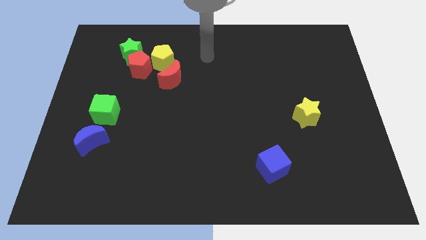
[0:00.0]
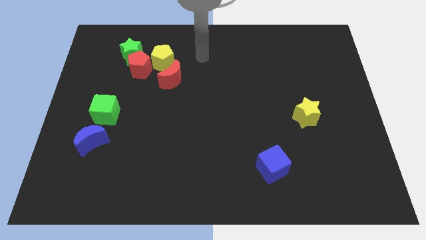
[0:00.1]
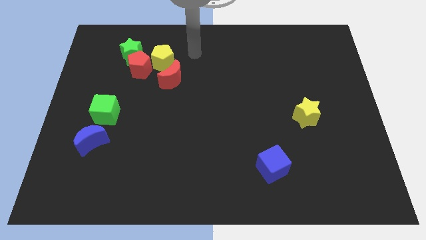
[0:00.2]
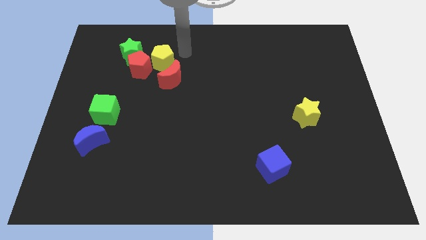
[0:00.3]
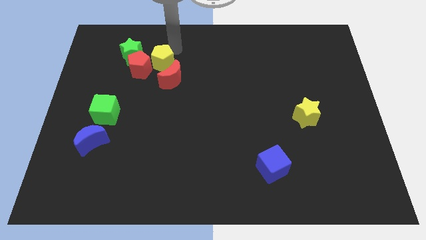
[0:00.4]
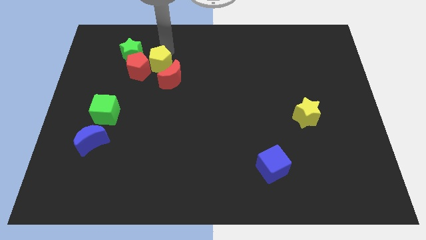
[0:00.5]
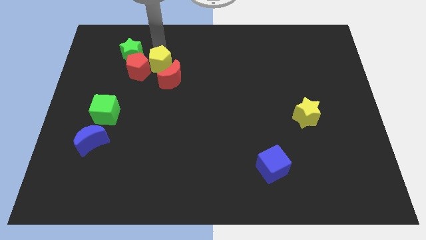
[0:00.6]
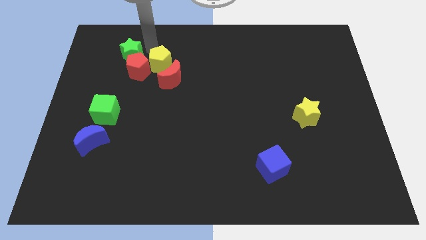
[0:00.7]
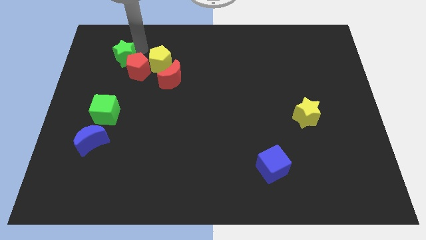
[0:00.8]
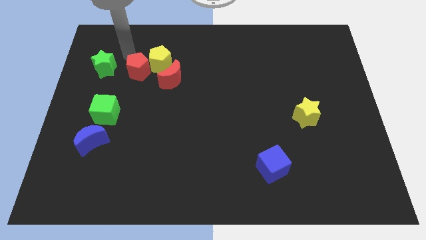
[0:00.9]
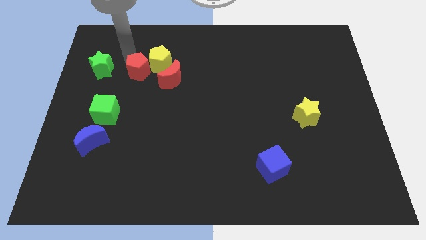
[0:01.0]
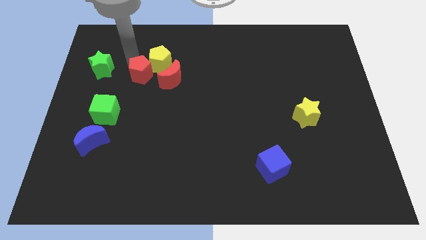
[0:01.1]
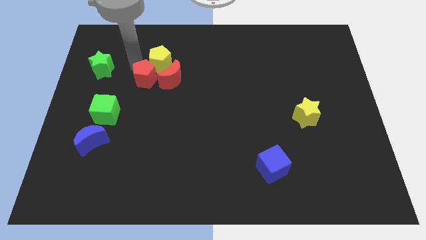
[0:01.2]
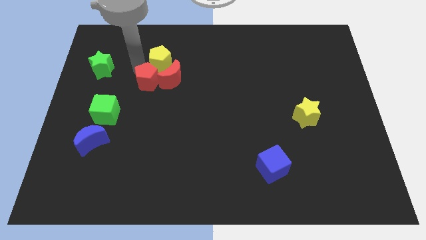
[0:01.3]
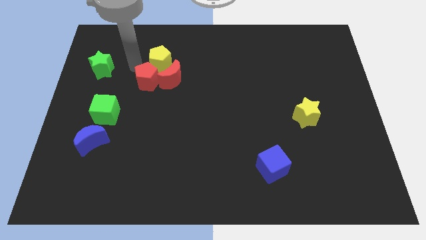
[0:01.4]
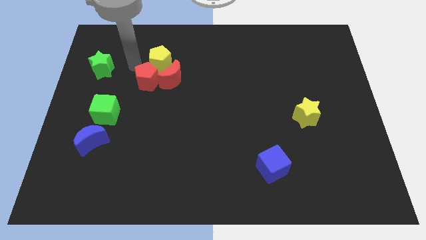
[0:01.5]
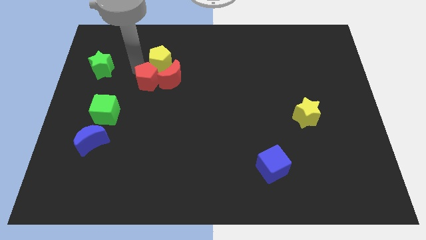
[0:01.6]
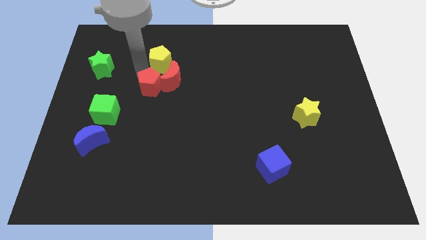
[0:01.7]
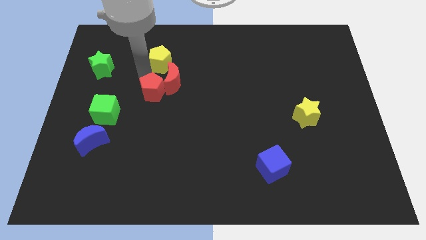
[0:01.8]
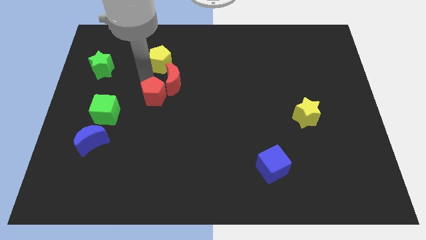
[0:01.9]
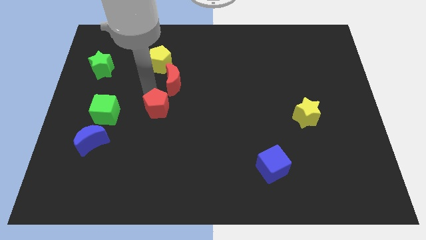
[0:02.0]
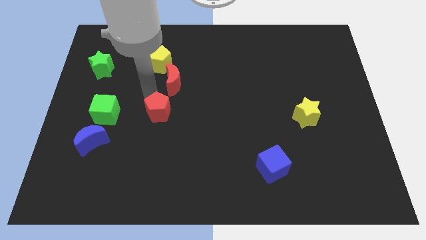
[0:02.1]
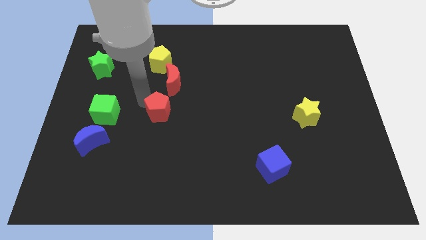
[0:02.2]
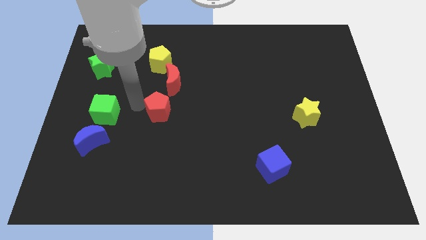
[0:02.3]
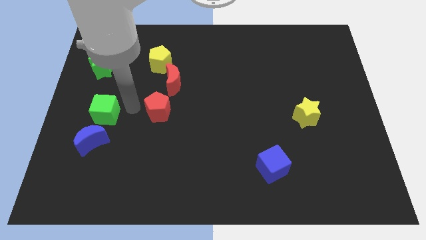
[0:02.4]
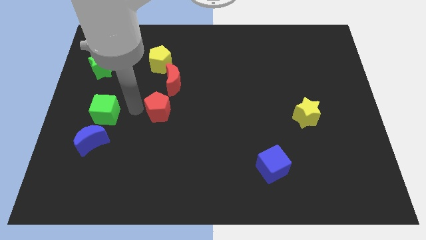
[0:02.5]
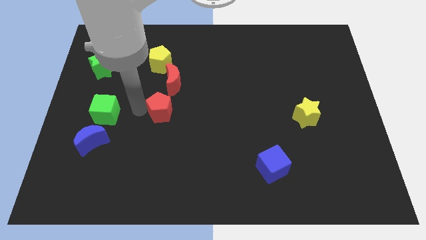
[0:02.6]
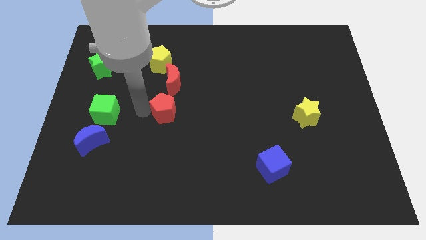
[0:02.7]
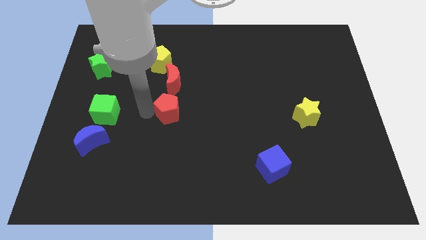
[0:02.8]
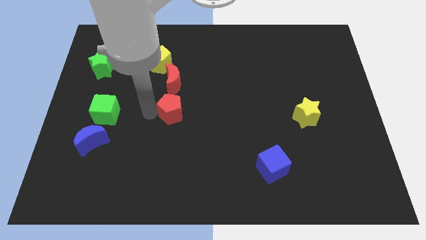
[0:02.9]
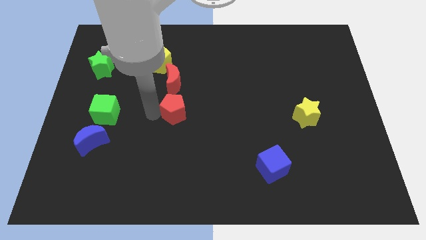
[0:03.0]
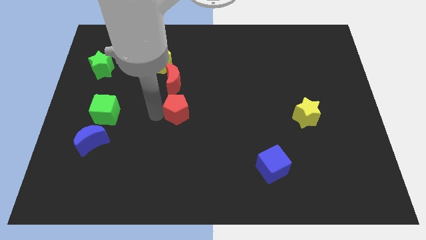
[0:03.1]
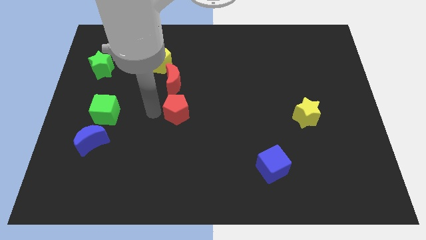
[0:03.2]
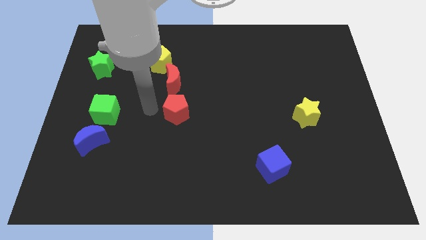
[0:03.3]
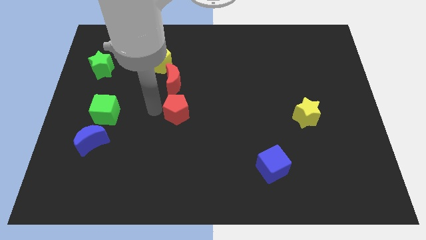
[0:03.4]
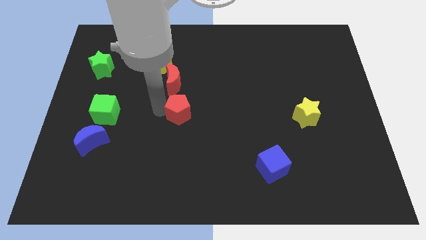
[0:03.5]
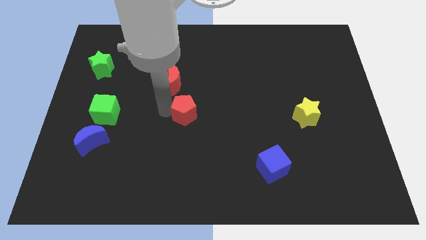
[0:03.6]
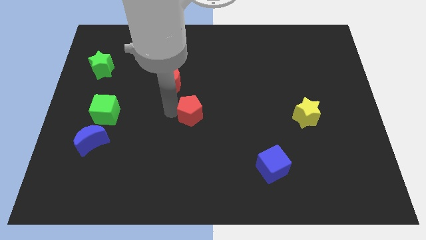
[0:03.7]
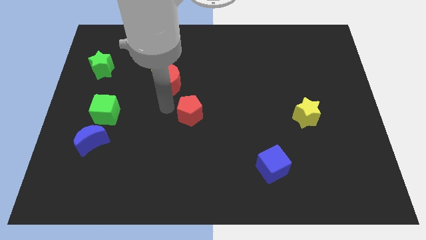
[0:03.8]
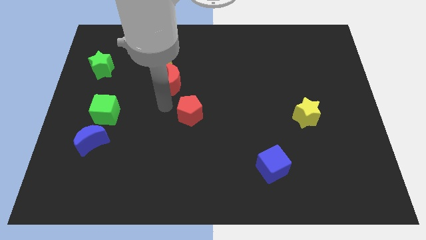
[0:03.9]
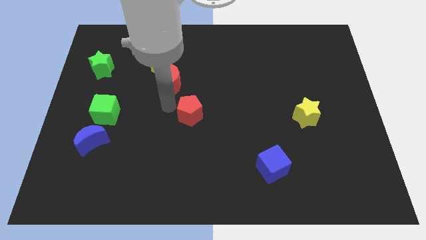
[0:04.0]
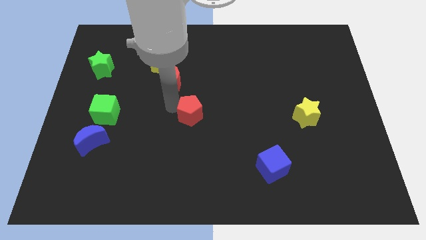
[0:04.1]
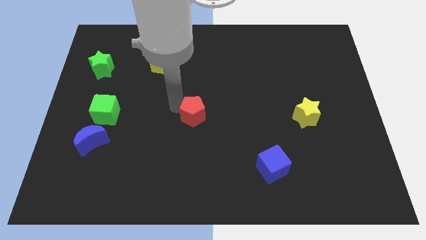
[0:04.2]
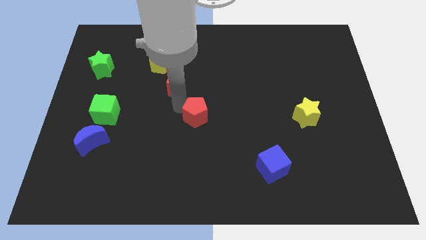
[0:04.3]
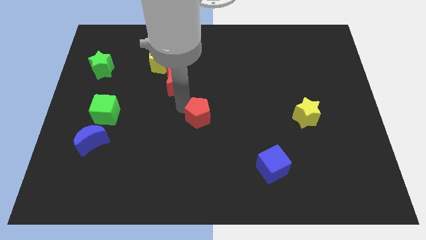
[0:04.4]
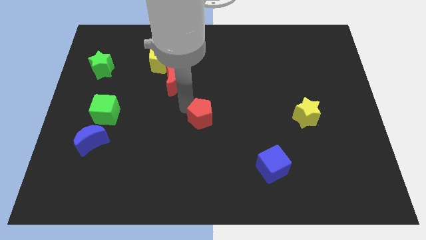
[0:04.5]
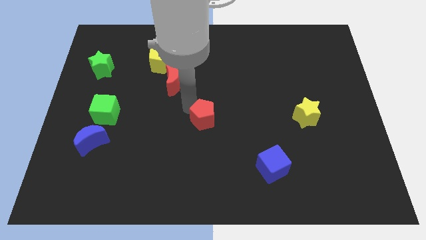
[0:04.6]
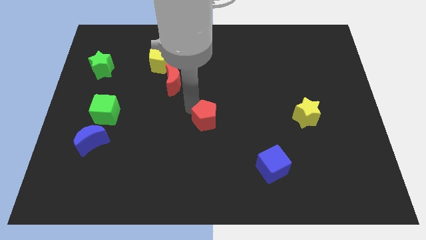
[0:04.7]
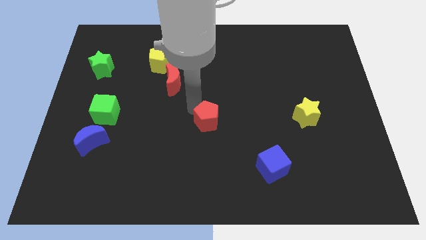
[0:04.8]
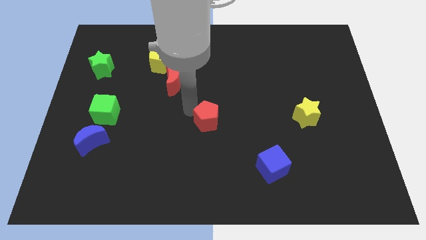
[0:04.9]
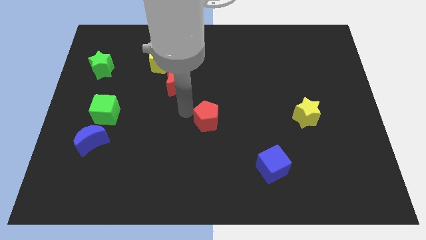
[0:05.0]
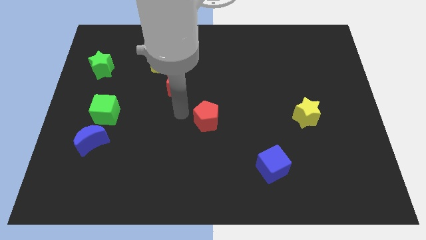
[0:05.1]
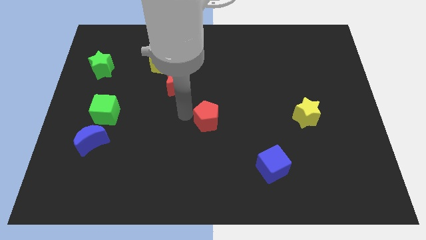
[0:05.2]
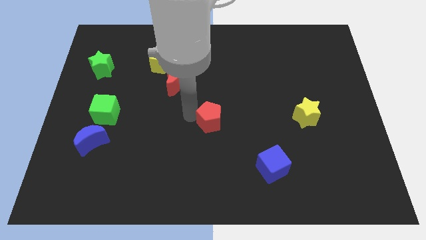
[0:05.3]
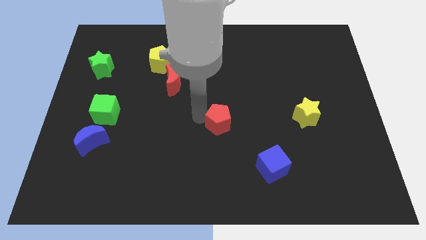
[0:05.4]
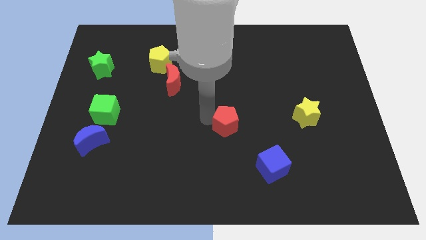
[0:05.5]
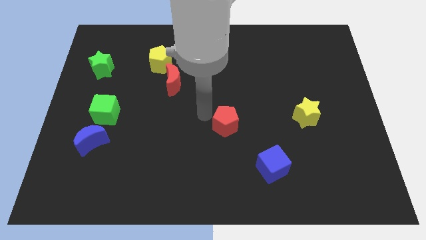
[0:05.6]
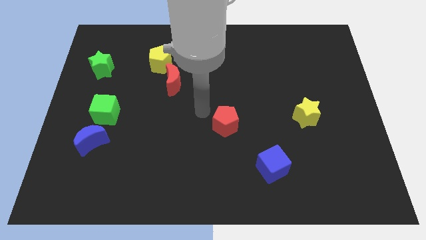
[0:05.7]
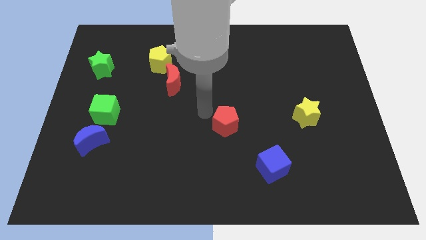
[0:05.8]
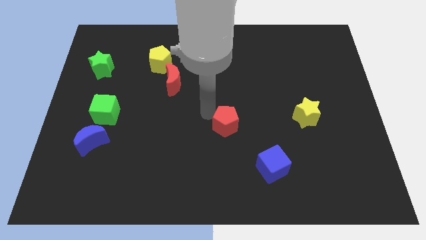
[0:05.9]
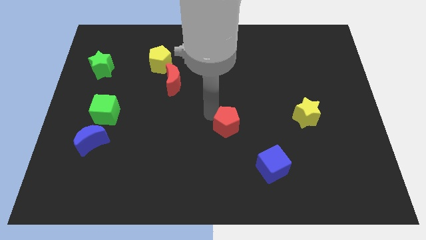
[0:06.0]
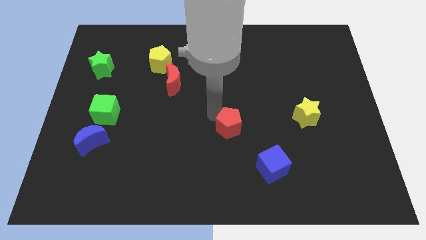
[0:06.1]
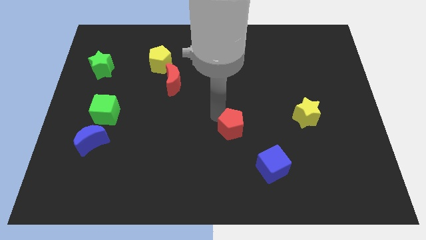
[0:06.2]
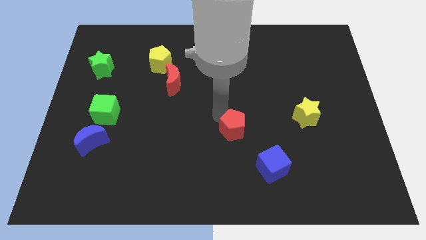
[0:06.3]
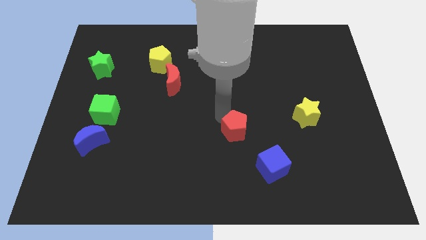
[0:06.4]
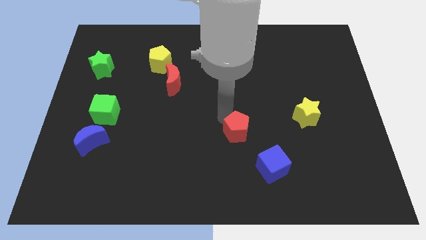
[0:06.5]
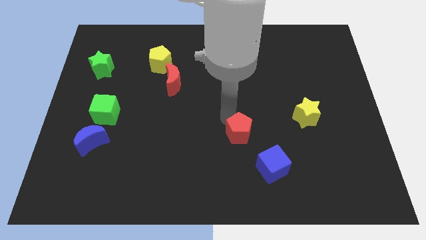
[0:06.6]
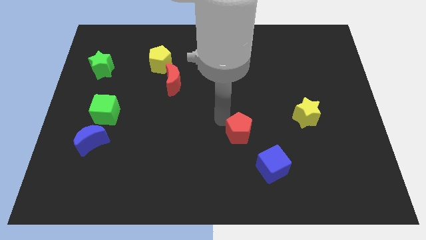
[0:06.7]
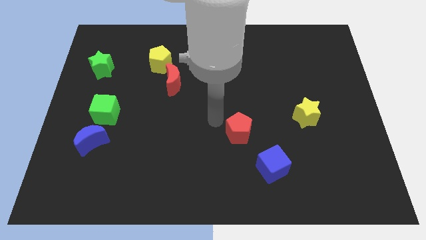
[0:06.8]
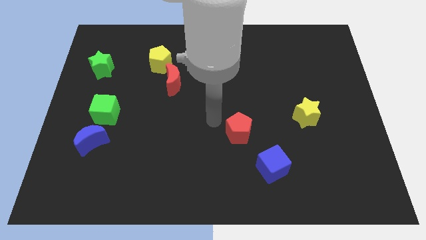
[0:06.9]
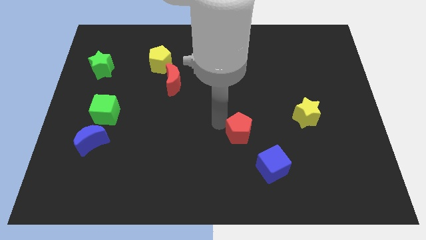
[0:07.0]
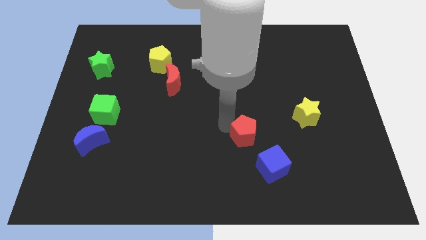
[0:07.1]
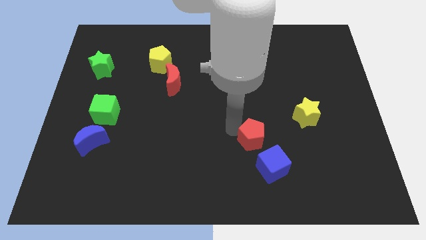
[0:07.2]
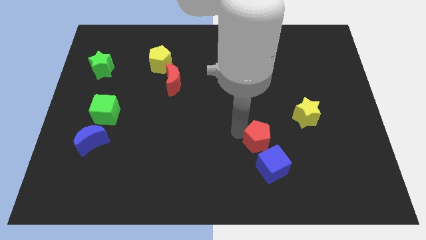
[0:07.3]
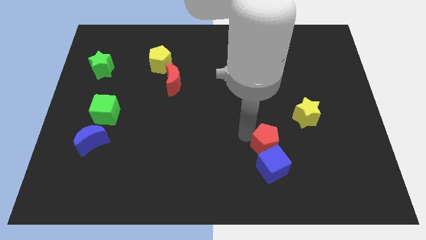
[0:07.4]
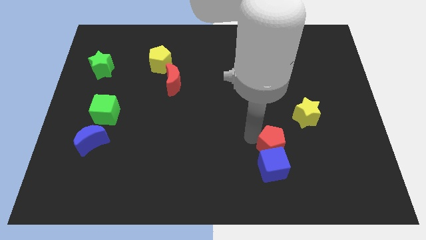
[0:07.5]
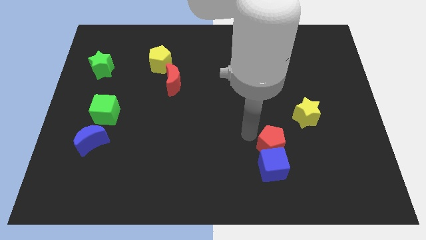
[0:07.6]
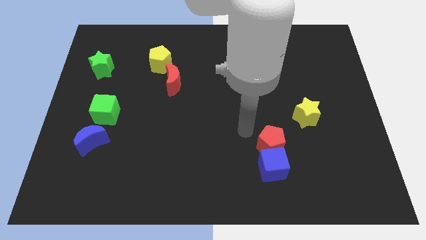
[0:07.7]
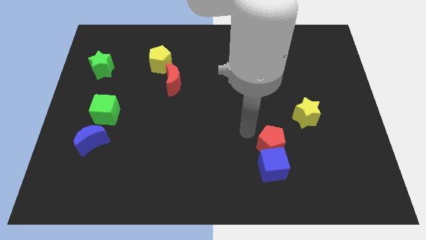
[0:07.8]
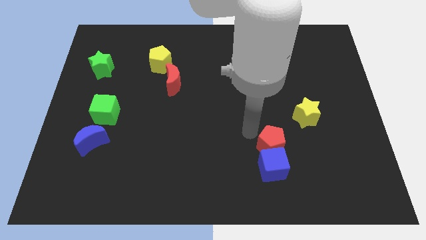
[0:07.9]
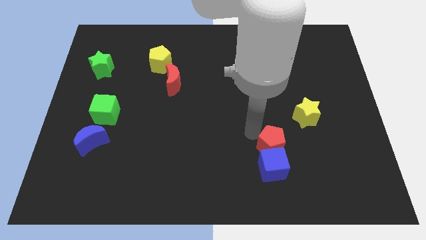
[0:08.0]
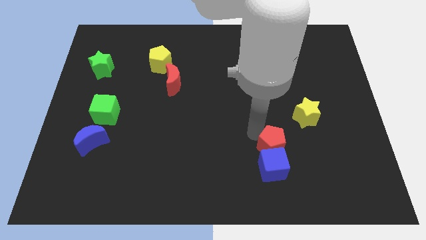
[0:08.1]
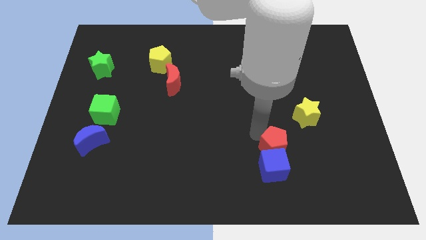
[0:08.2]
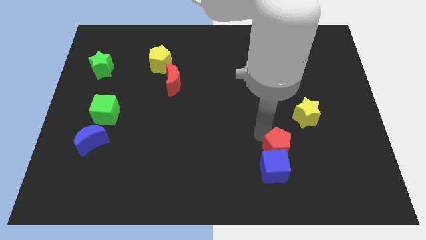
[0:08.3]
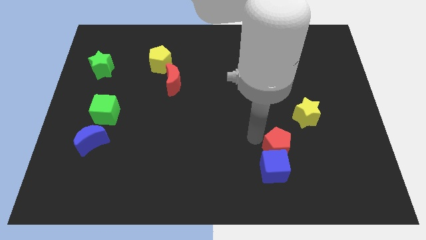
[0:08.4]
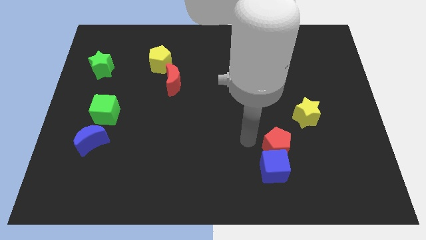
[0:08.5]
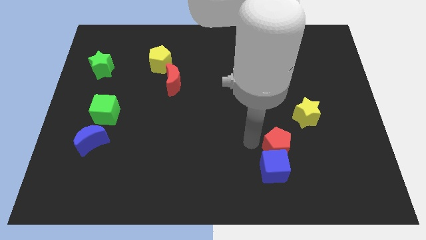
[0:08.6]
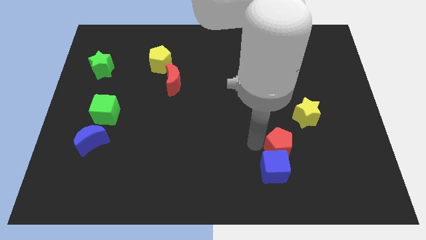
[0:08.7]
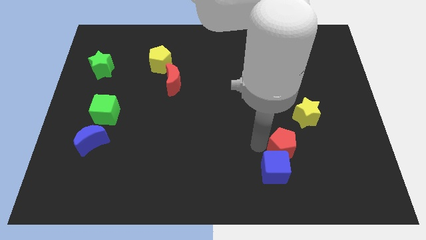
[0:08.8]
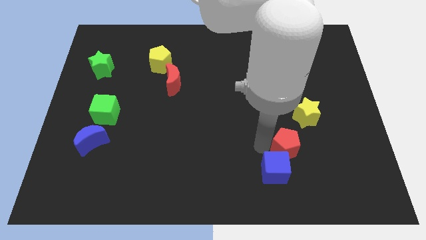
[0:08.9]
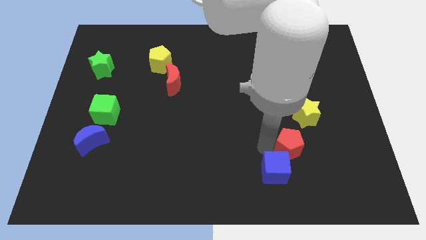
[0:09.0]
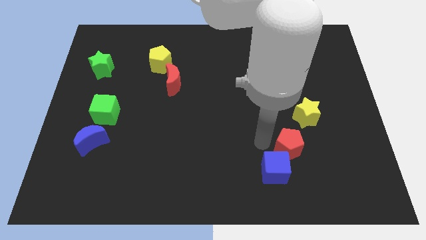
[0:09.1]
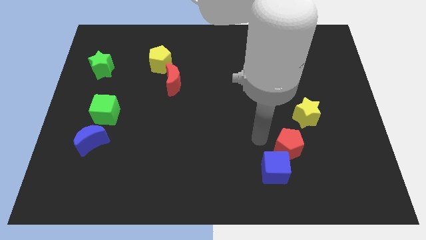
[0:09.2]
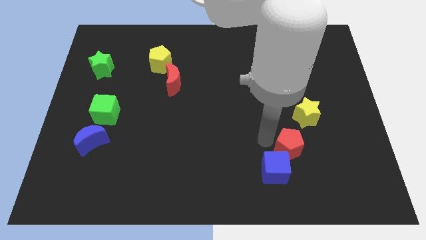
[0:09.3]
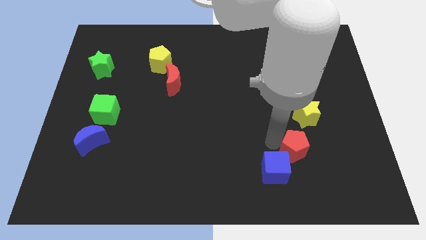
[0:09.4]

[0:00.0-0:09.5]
move the red pentagon to the bottom side of the yellow star
